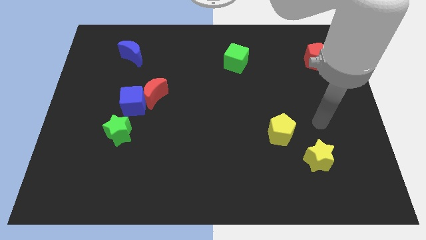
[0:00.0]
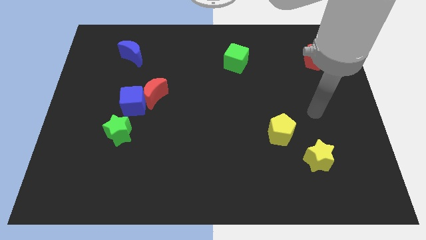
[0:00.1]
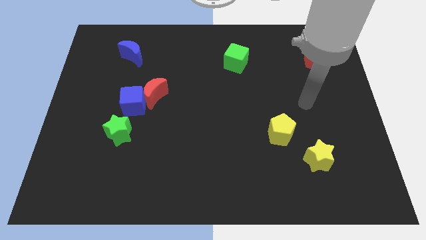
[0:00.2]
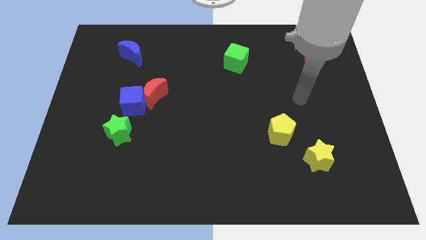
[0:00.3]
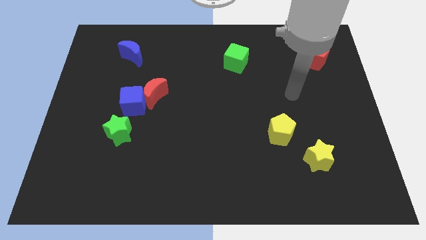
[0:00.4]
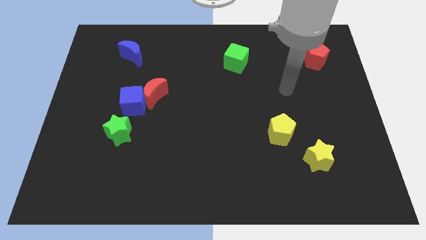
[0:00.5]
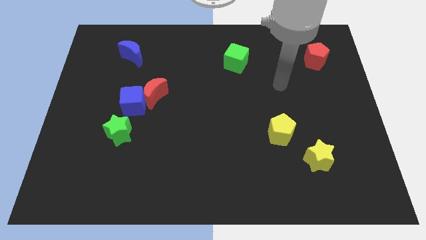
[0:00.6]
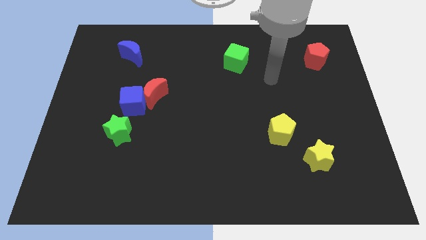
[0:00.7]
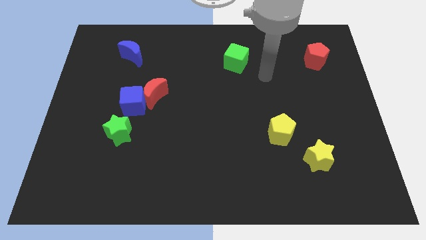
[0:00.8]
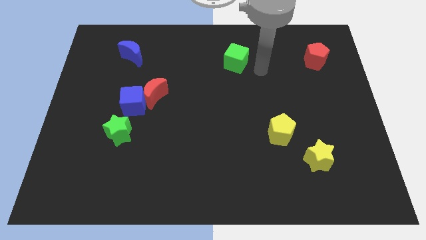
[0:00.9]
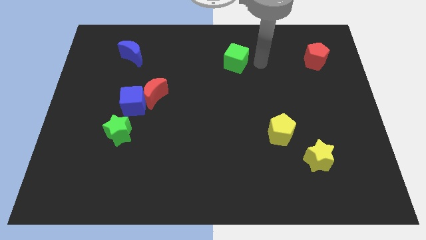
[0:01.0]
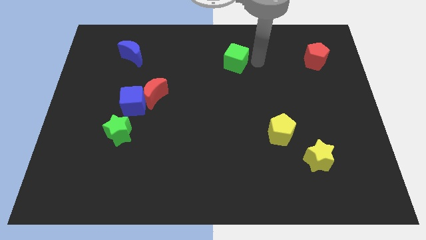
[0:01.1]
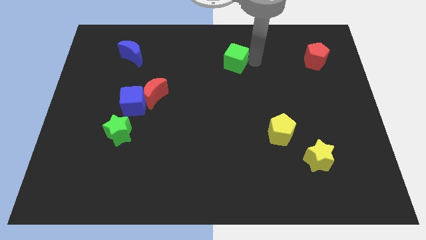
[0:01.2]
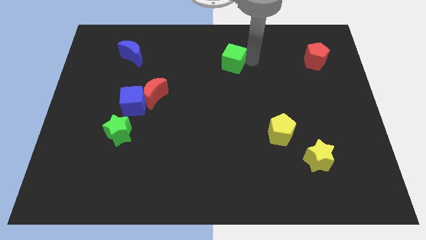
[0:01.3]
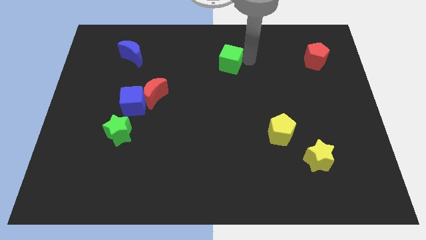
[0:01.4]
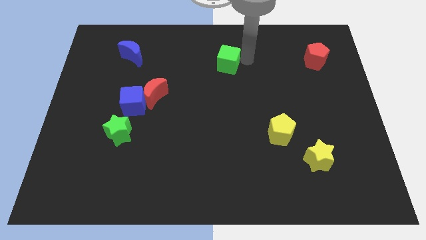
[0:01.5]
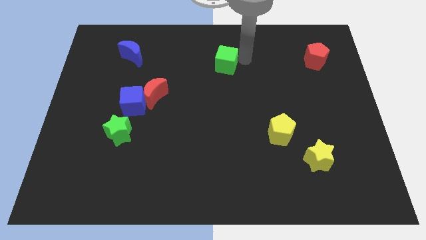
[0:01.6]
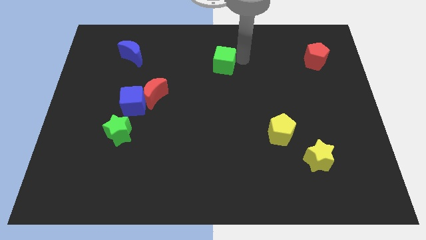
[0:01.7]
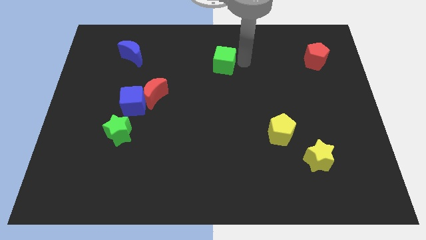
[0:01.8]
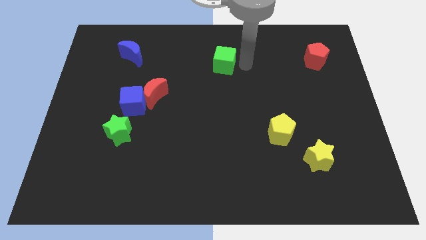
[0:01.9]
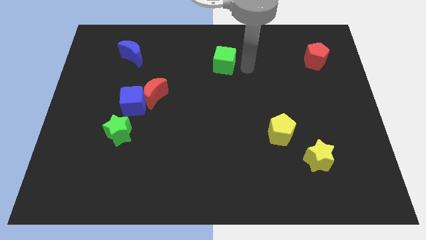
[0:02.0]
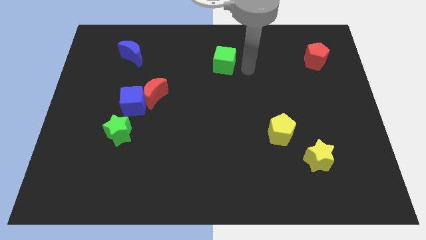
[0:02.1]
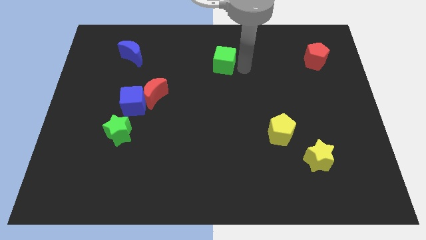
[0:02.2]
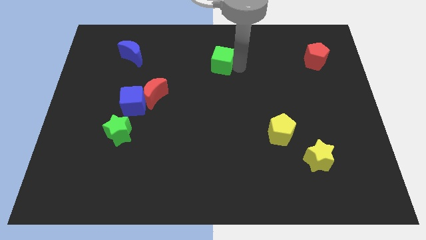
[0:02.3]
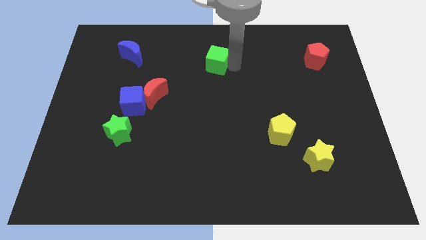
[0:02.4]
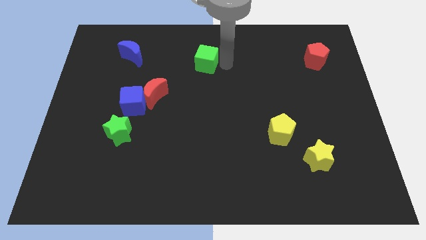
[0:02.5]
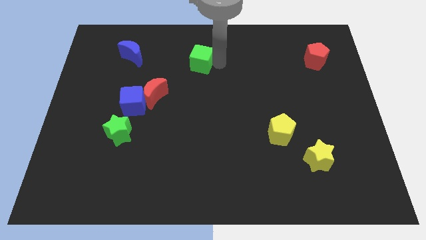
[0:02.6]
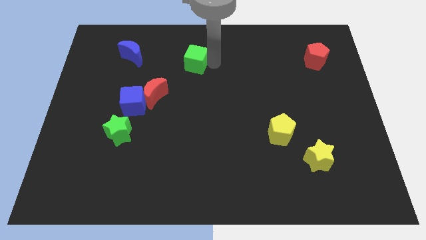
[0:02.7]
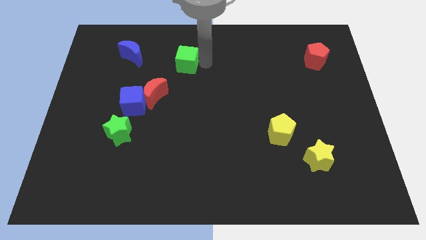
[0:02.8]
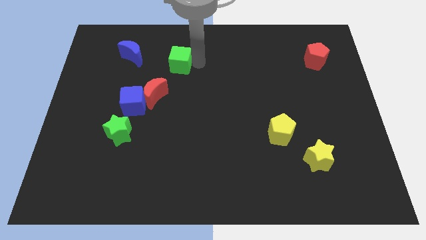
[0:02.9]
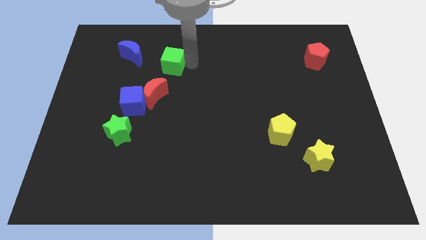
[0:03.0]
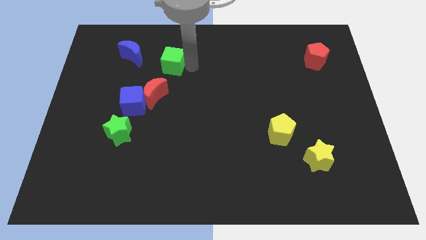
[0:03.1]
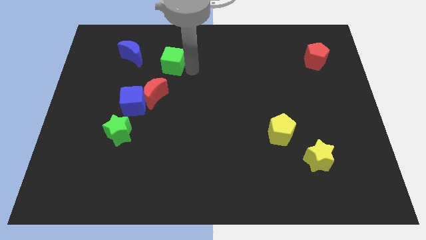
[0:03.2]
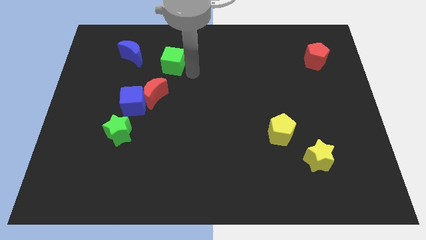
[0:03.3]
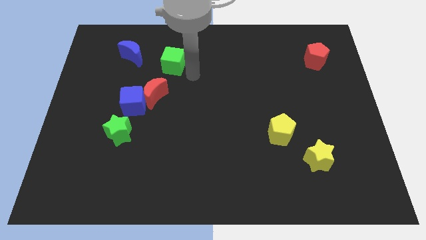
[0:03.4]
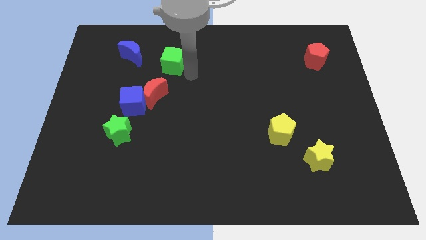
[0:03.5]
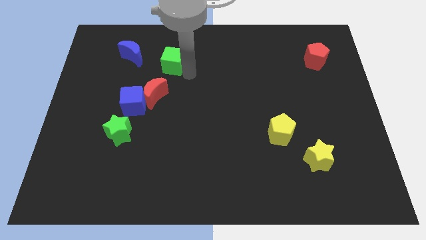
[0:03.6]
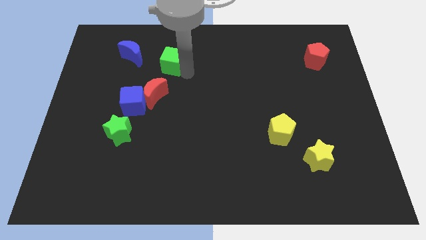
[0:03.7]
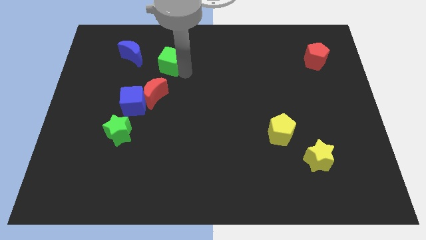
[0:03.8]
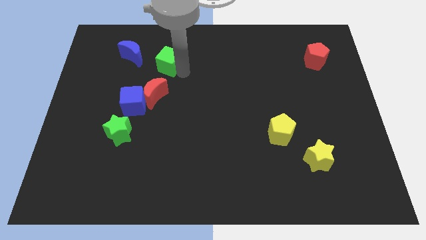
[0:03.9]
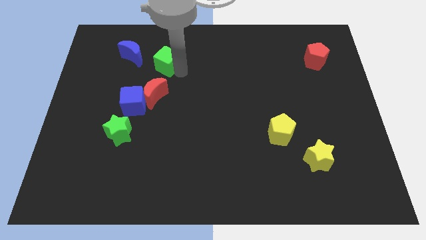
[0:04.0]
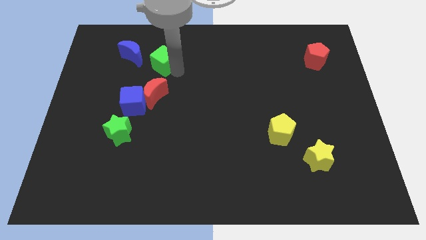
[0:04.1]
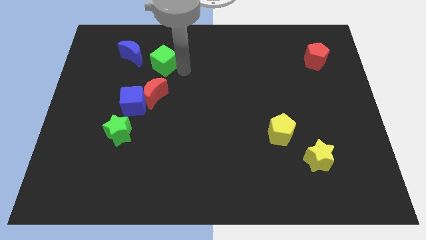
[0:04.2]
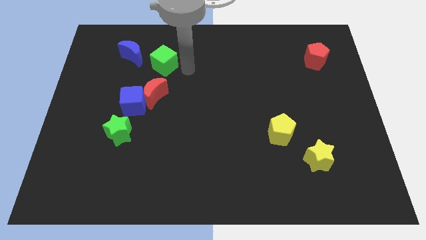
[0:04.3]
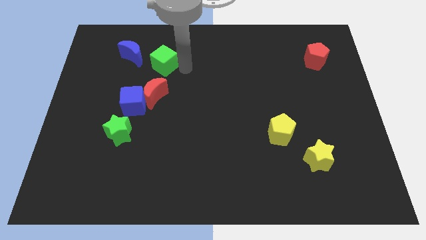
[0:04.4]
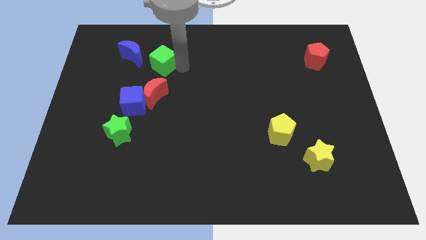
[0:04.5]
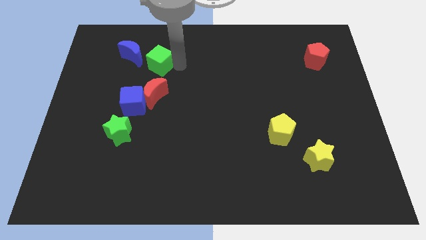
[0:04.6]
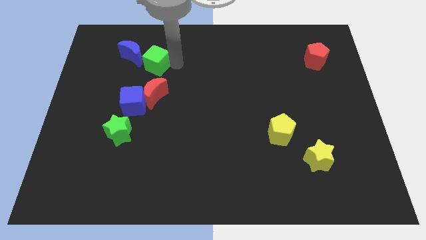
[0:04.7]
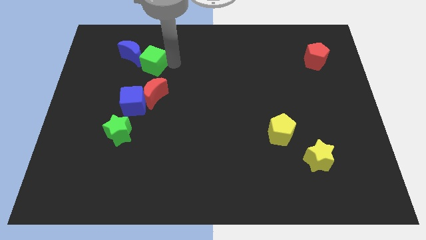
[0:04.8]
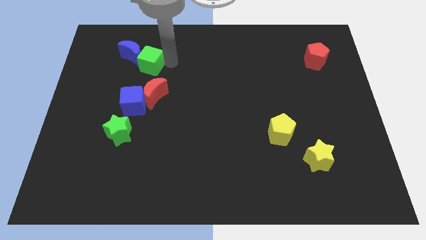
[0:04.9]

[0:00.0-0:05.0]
slide the green cube to the blue moon

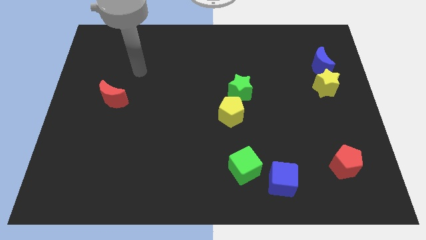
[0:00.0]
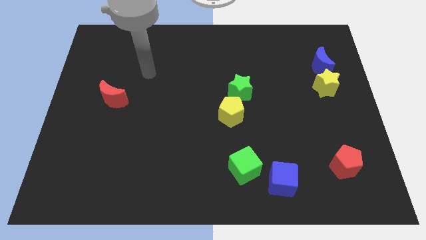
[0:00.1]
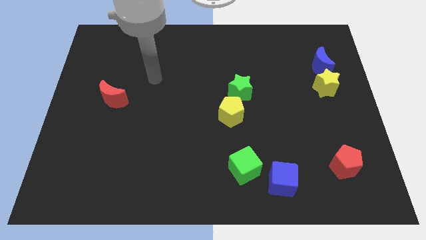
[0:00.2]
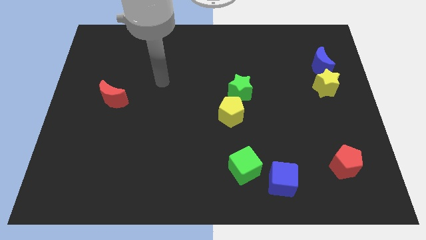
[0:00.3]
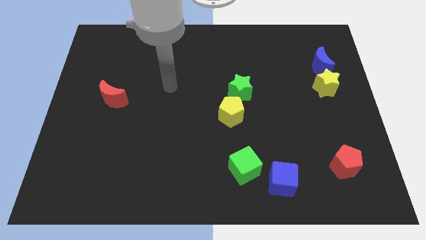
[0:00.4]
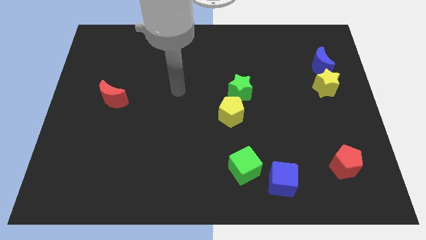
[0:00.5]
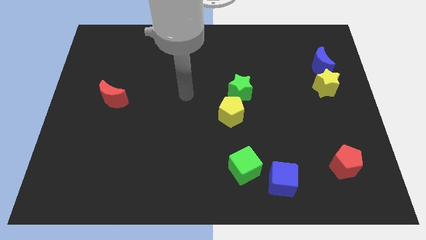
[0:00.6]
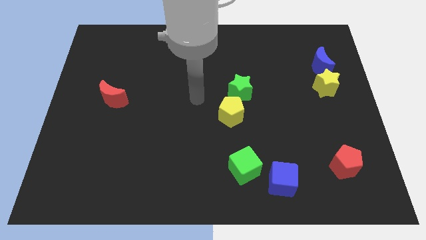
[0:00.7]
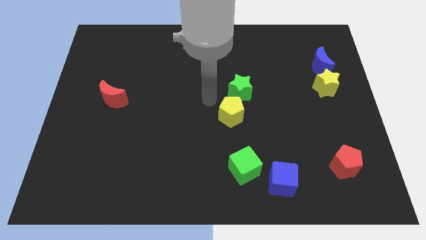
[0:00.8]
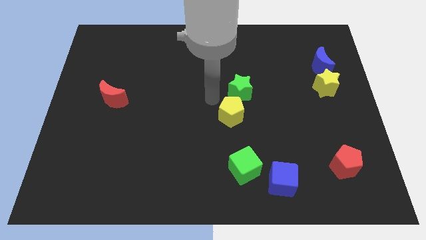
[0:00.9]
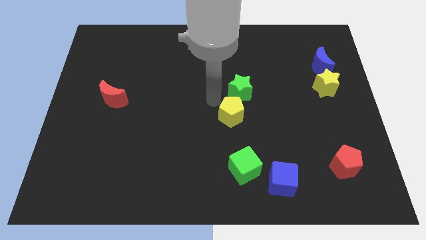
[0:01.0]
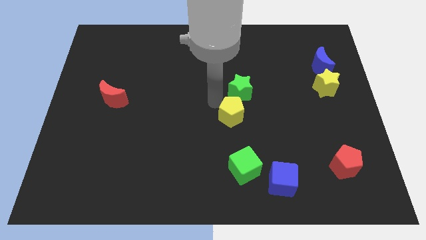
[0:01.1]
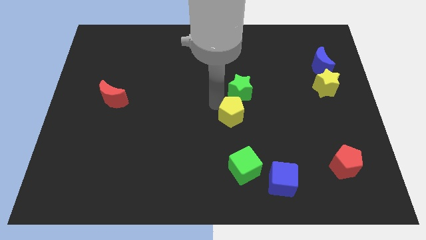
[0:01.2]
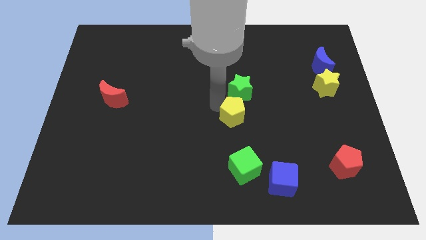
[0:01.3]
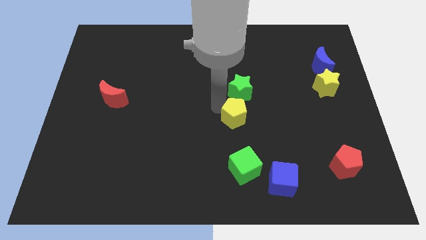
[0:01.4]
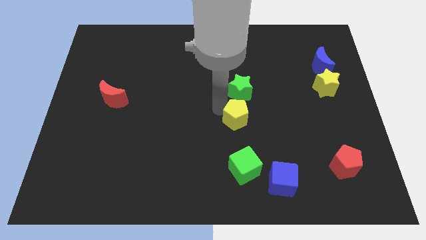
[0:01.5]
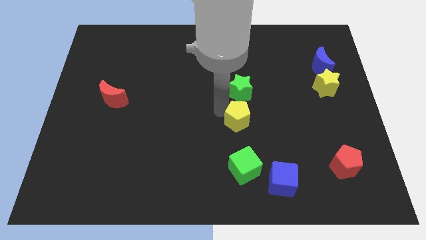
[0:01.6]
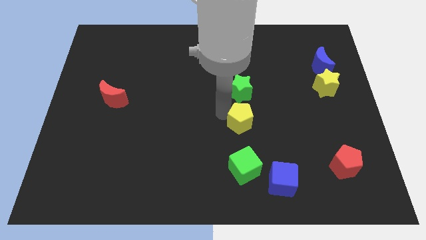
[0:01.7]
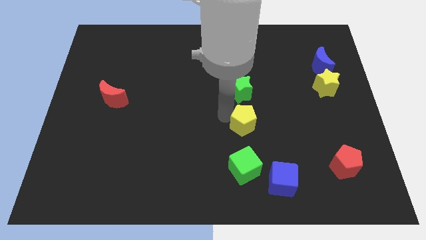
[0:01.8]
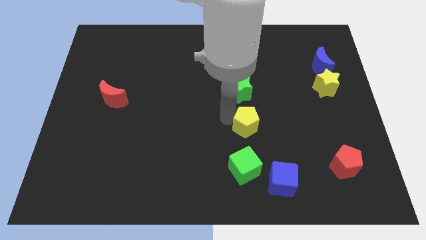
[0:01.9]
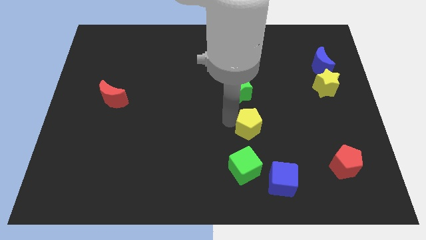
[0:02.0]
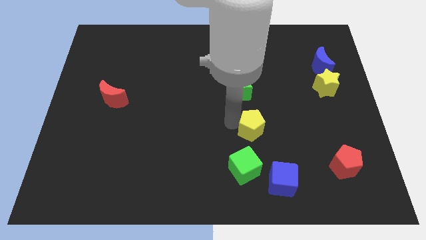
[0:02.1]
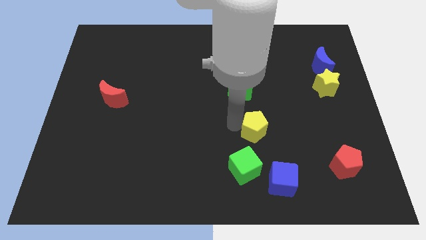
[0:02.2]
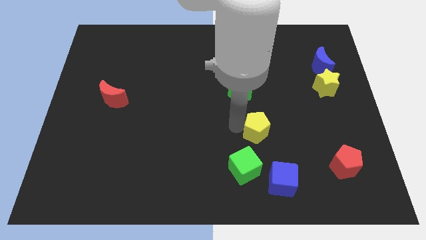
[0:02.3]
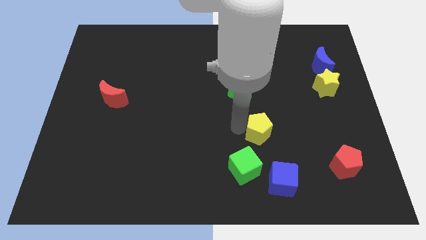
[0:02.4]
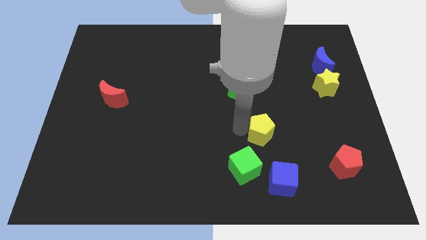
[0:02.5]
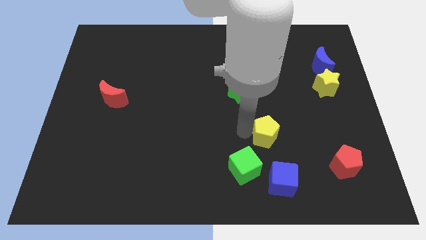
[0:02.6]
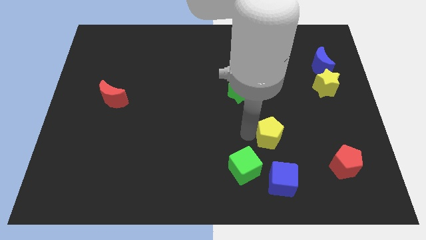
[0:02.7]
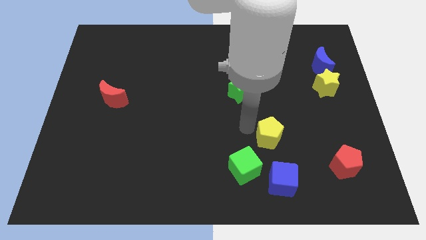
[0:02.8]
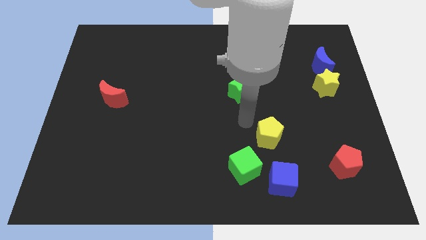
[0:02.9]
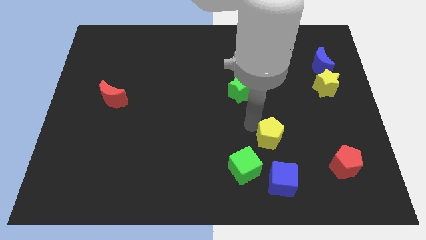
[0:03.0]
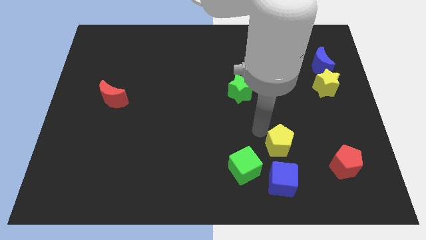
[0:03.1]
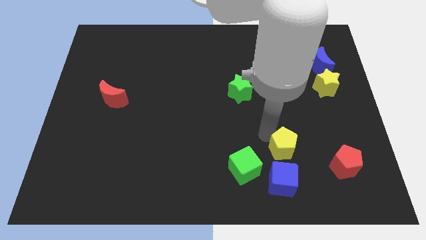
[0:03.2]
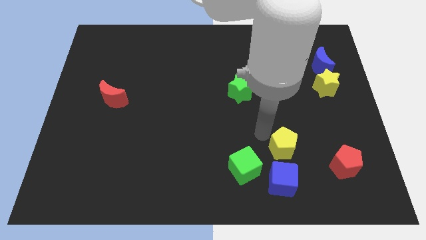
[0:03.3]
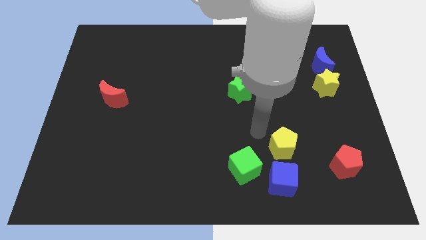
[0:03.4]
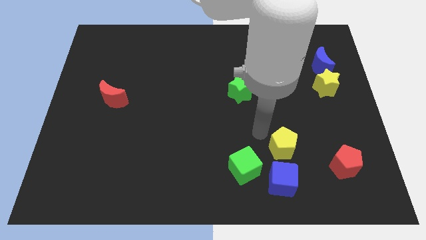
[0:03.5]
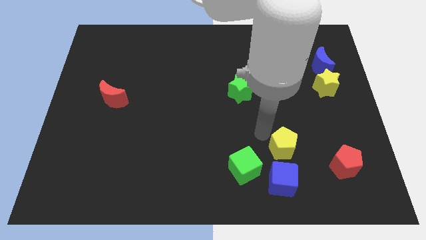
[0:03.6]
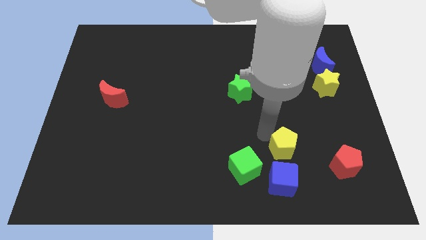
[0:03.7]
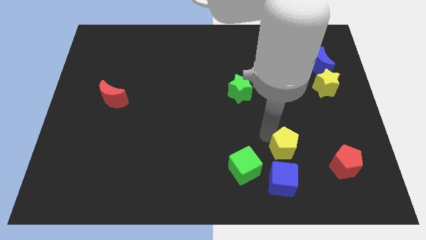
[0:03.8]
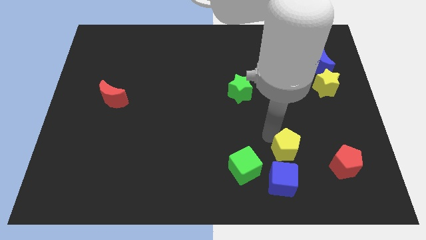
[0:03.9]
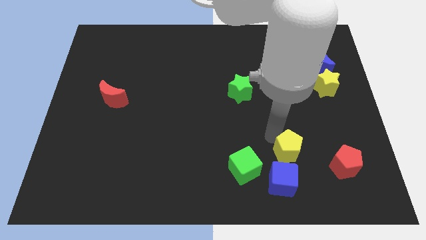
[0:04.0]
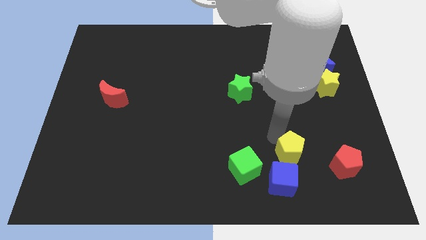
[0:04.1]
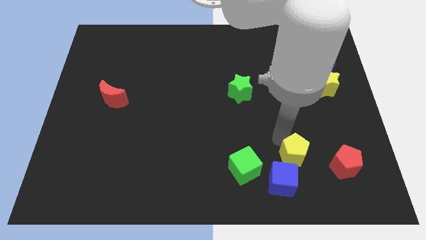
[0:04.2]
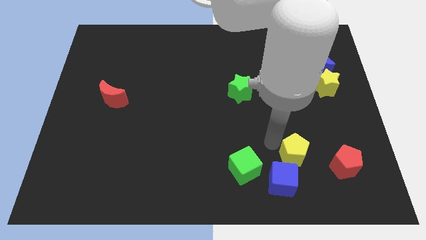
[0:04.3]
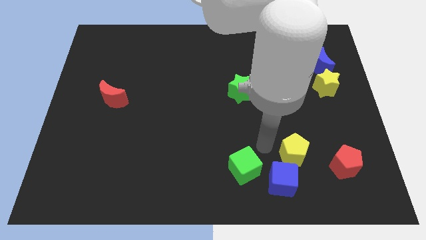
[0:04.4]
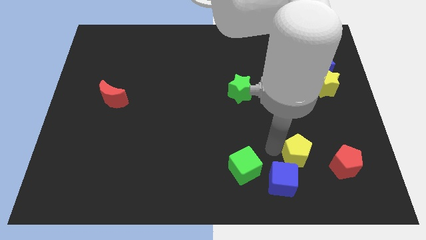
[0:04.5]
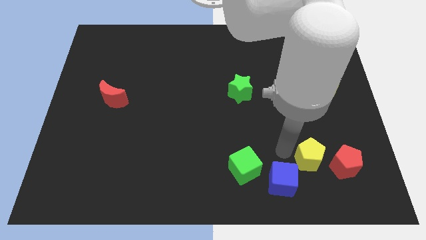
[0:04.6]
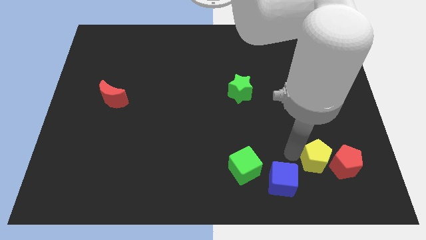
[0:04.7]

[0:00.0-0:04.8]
put the yellow pentagon towards the red pentagon
